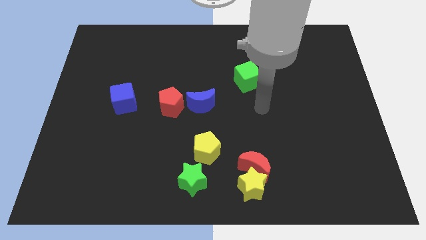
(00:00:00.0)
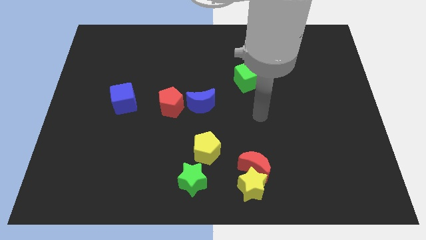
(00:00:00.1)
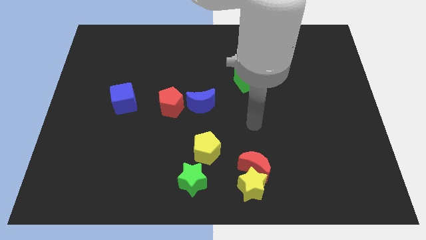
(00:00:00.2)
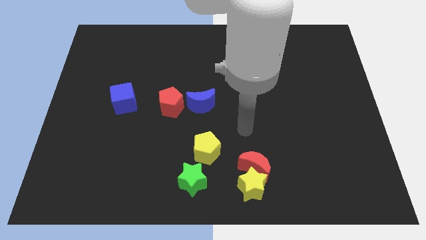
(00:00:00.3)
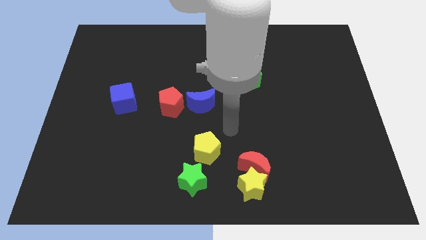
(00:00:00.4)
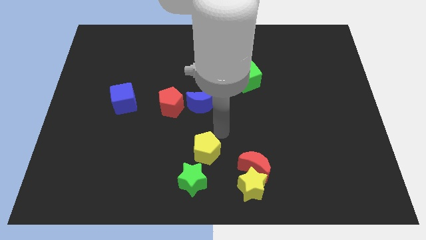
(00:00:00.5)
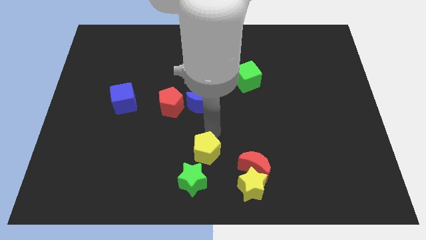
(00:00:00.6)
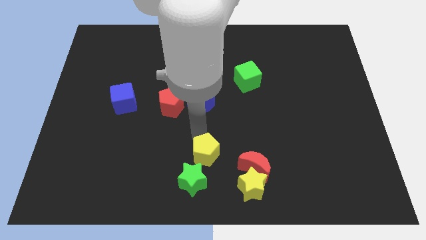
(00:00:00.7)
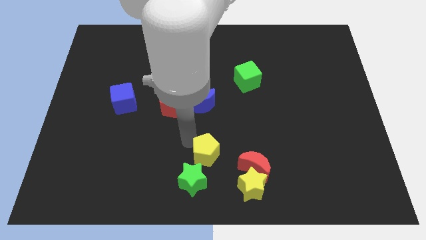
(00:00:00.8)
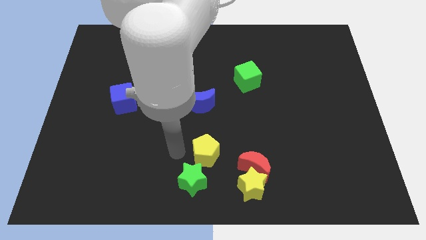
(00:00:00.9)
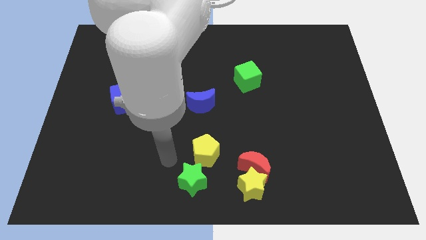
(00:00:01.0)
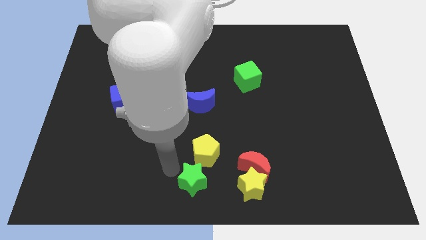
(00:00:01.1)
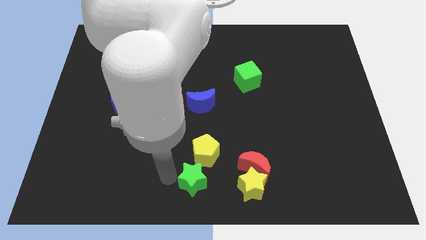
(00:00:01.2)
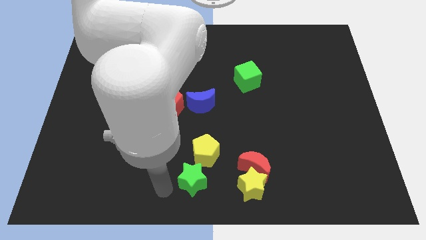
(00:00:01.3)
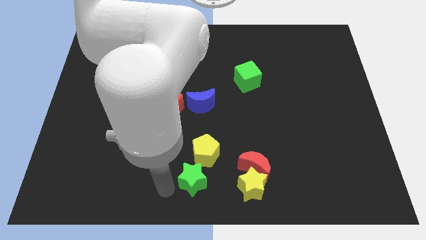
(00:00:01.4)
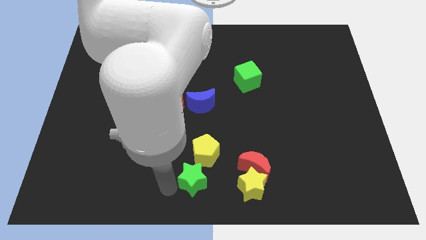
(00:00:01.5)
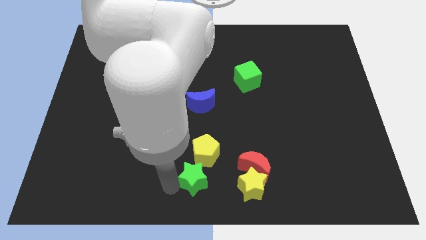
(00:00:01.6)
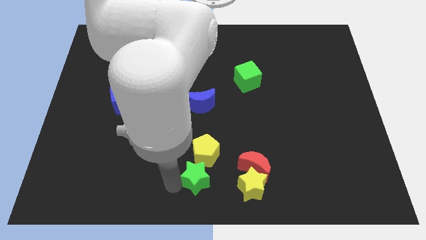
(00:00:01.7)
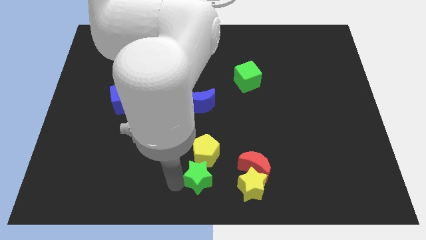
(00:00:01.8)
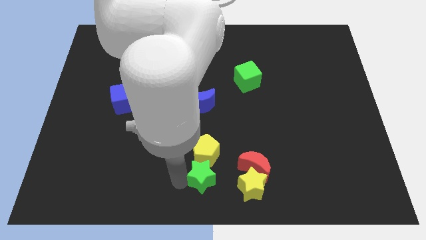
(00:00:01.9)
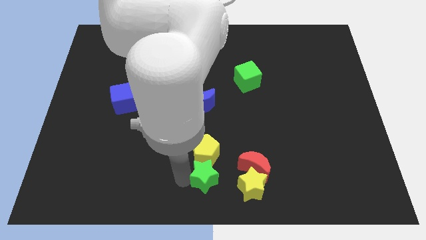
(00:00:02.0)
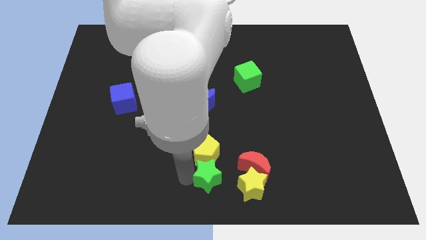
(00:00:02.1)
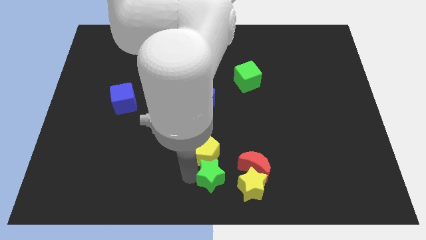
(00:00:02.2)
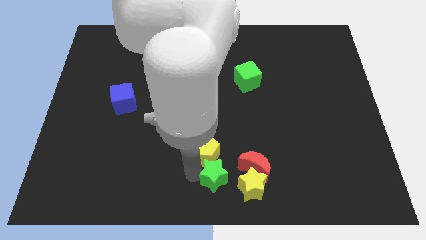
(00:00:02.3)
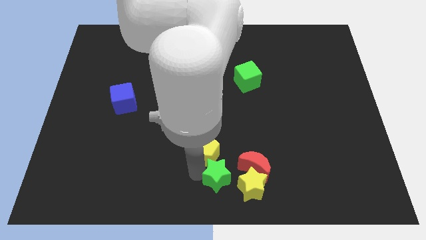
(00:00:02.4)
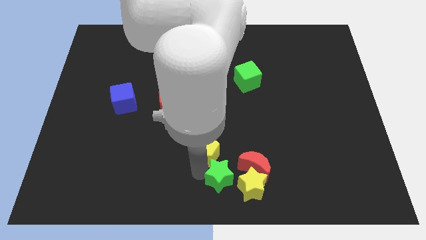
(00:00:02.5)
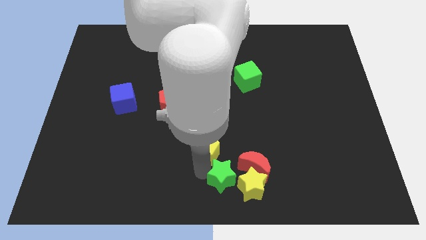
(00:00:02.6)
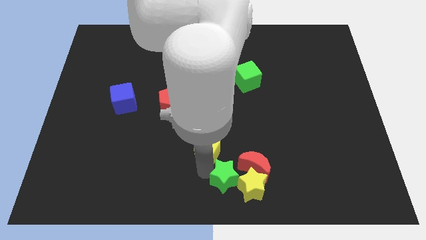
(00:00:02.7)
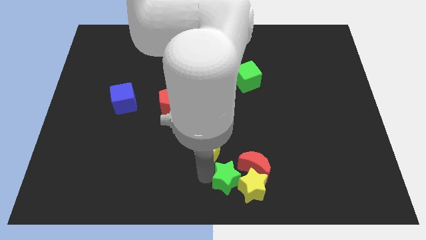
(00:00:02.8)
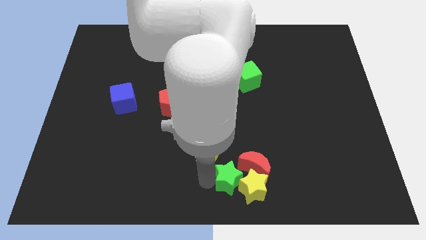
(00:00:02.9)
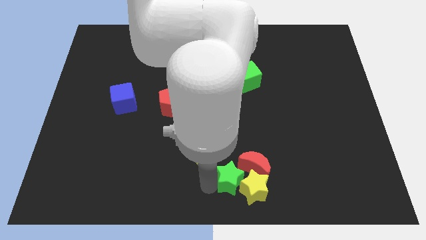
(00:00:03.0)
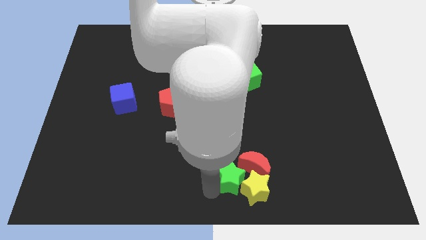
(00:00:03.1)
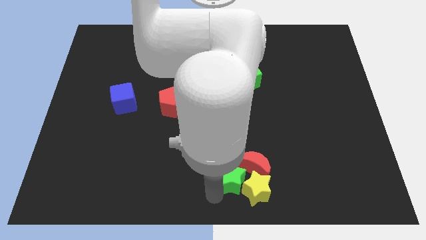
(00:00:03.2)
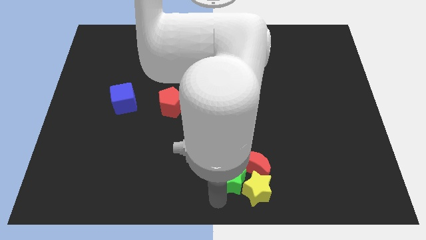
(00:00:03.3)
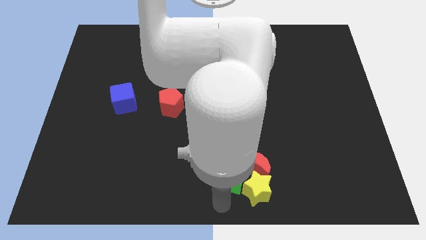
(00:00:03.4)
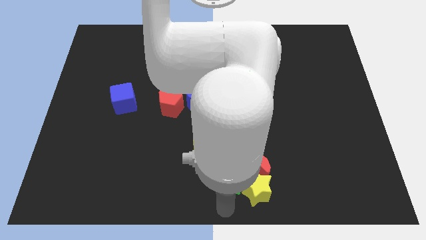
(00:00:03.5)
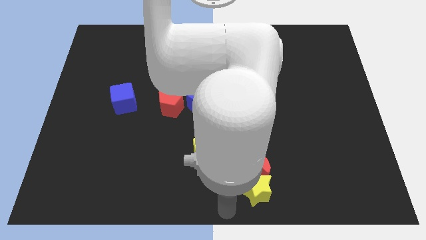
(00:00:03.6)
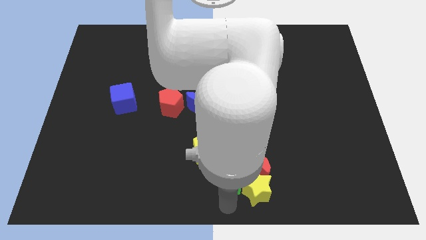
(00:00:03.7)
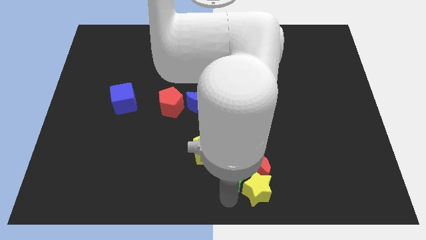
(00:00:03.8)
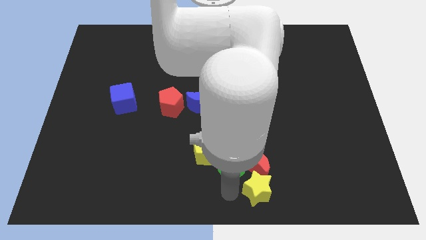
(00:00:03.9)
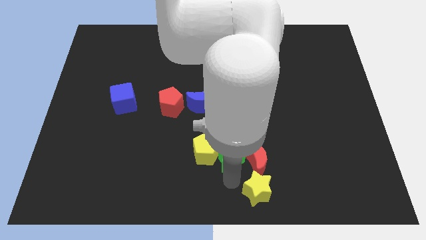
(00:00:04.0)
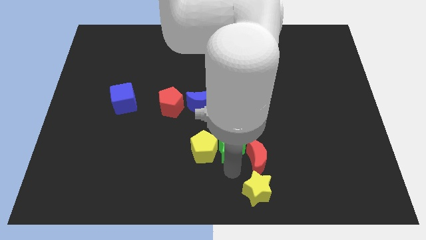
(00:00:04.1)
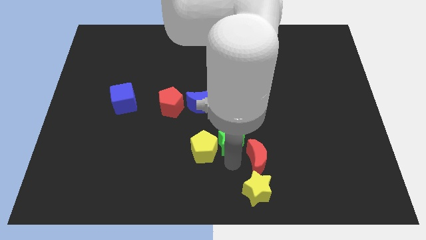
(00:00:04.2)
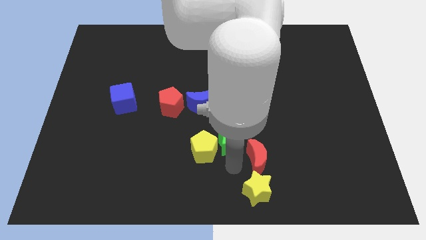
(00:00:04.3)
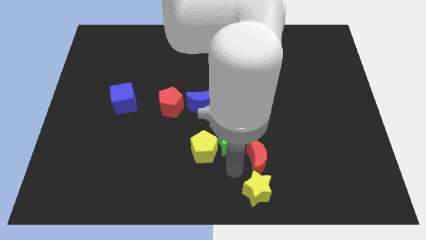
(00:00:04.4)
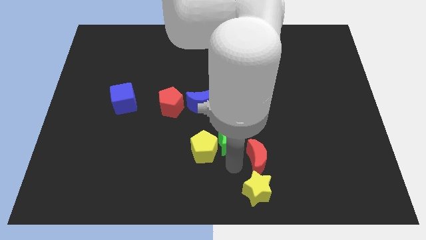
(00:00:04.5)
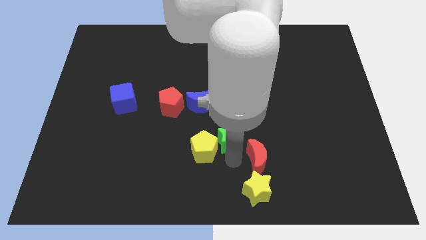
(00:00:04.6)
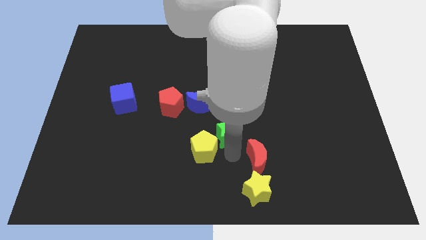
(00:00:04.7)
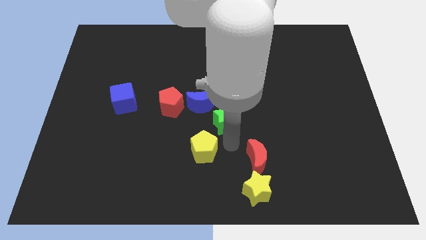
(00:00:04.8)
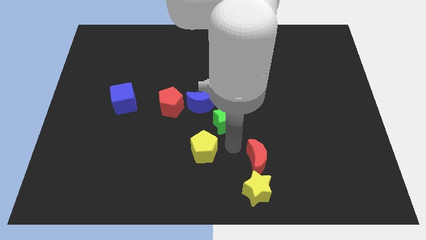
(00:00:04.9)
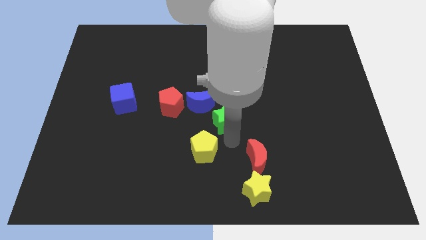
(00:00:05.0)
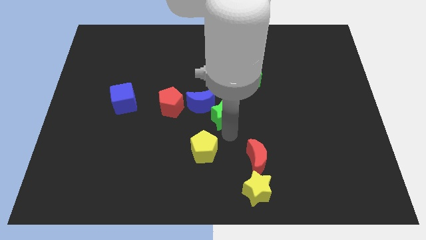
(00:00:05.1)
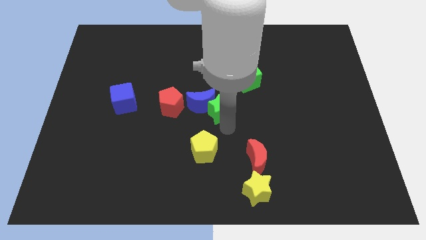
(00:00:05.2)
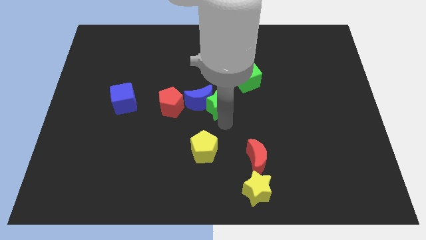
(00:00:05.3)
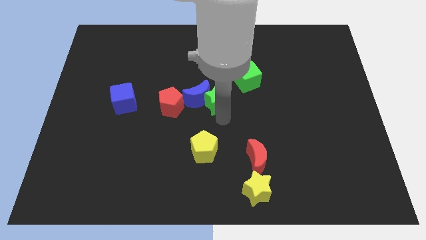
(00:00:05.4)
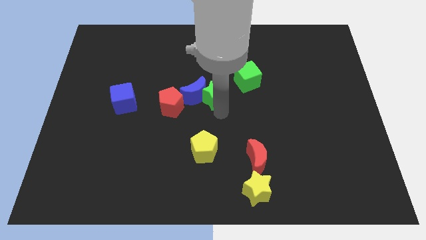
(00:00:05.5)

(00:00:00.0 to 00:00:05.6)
push the green star up

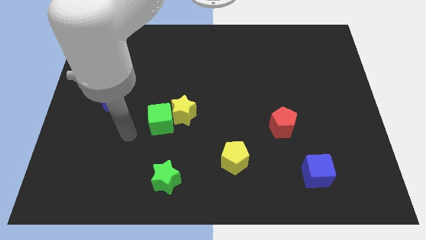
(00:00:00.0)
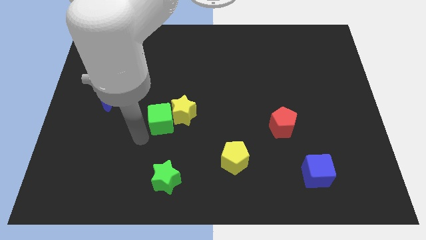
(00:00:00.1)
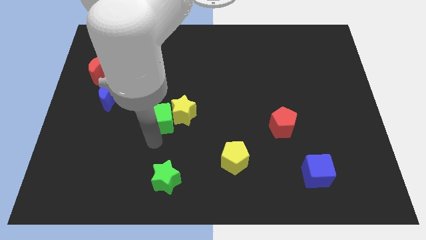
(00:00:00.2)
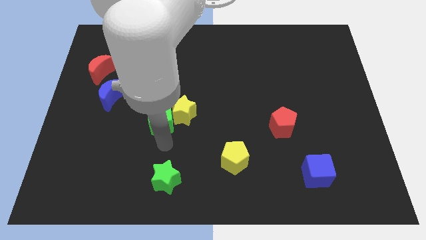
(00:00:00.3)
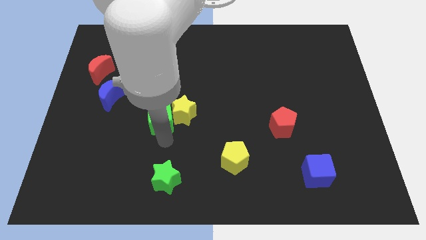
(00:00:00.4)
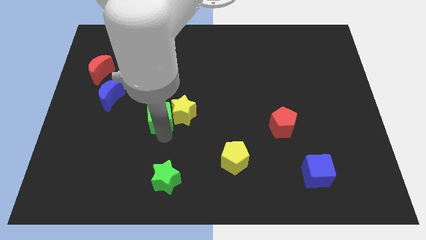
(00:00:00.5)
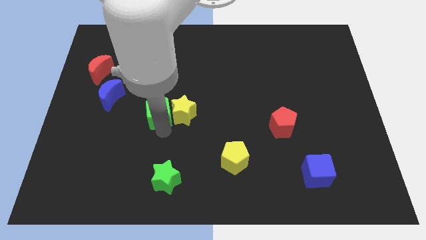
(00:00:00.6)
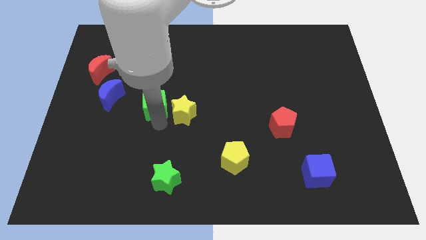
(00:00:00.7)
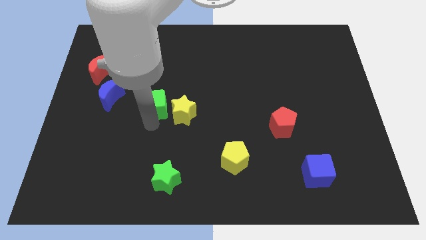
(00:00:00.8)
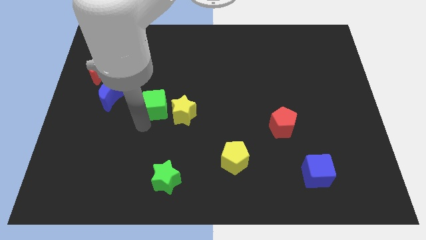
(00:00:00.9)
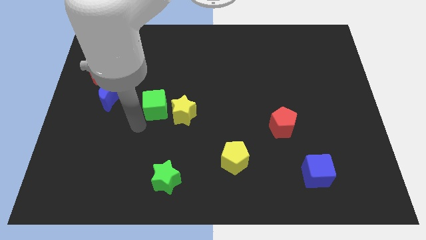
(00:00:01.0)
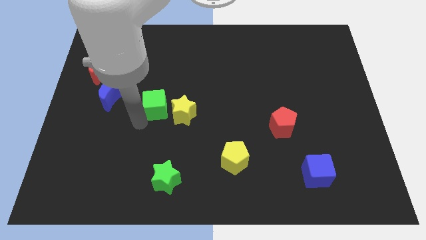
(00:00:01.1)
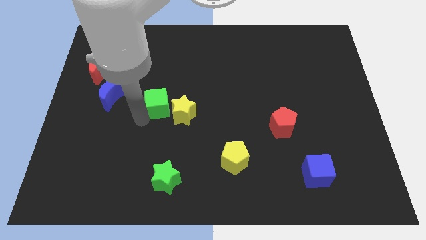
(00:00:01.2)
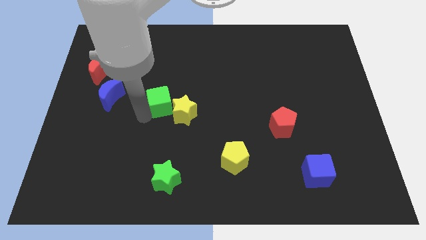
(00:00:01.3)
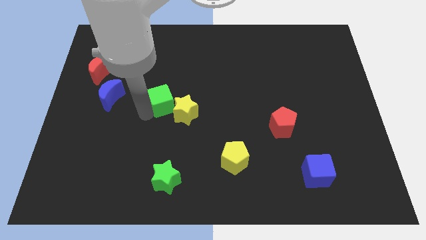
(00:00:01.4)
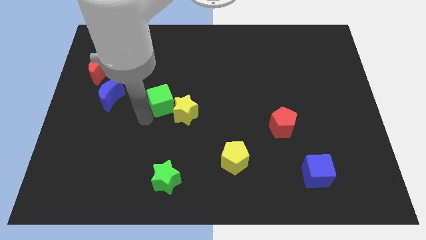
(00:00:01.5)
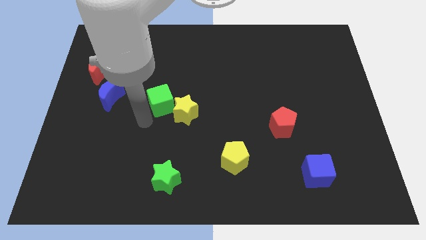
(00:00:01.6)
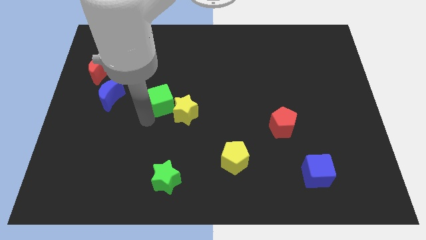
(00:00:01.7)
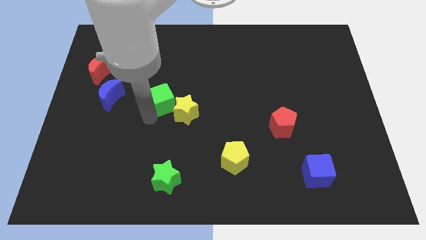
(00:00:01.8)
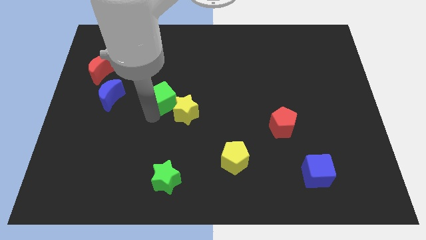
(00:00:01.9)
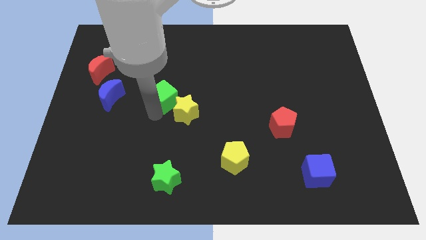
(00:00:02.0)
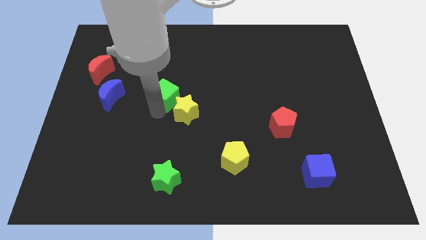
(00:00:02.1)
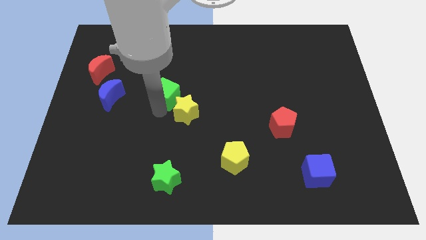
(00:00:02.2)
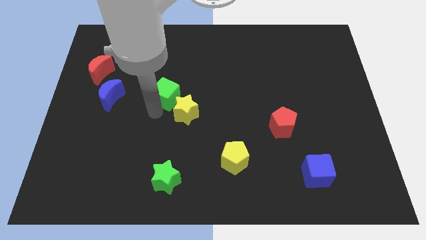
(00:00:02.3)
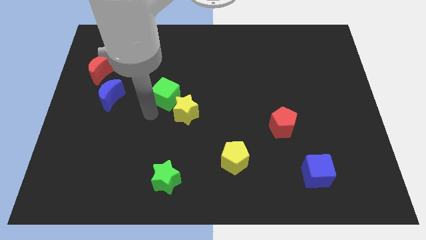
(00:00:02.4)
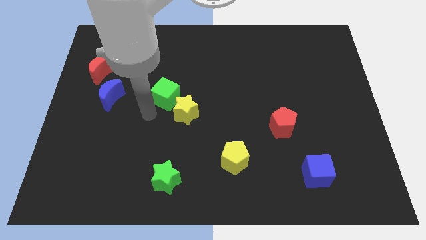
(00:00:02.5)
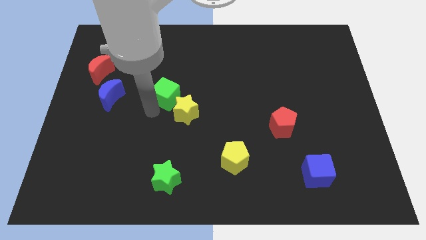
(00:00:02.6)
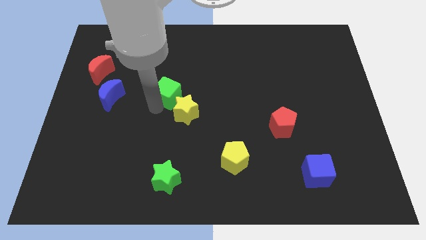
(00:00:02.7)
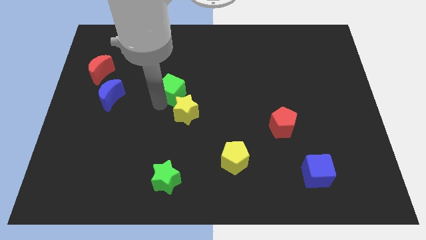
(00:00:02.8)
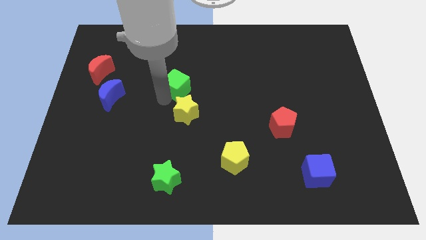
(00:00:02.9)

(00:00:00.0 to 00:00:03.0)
move the green cube upwards and then right a little bit
